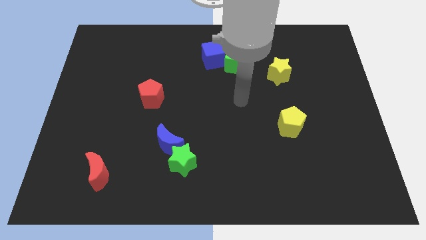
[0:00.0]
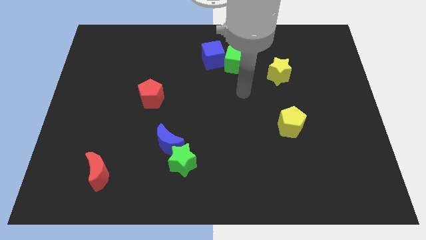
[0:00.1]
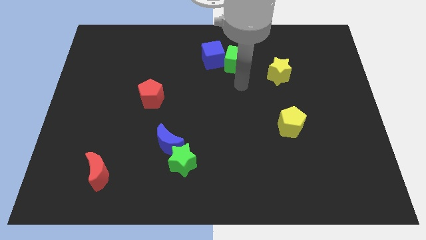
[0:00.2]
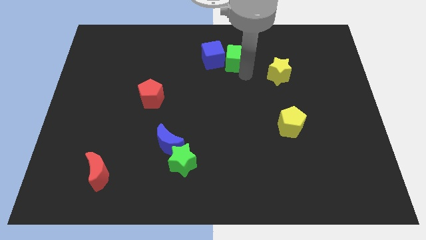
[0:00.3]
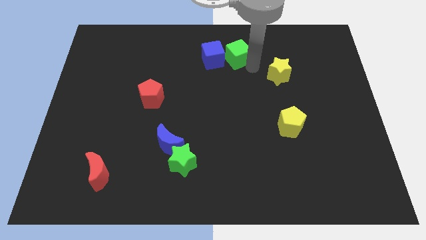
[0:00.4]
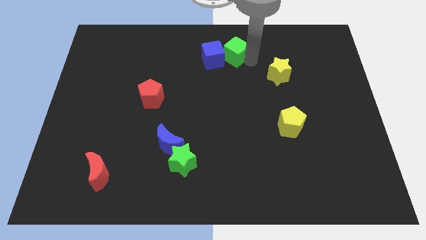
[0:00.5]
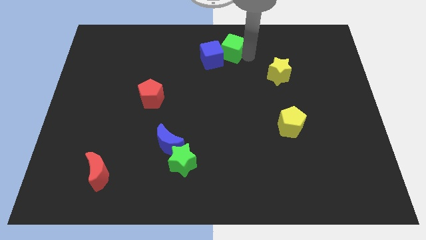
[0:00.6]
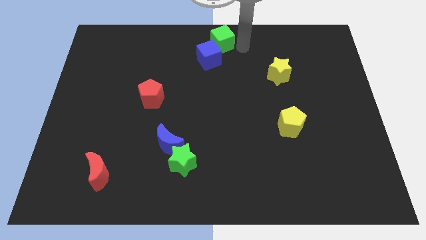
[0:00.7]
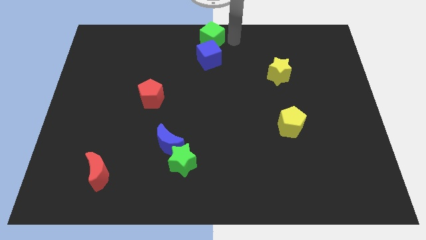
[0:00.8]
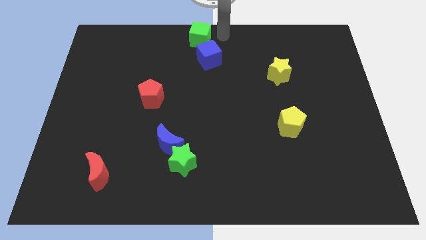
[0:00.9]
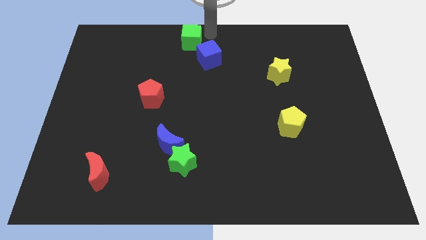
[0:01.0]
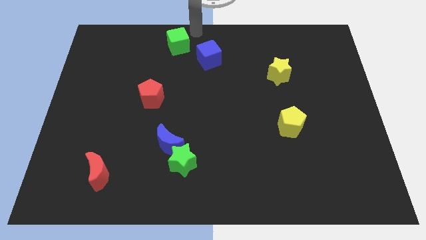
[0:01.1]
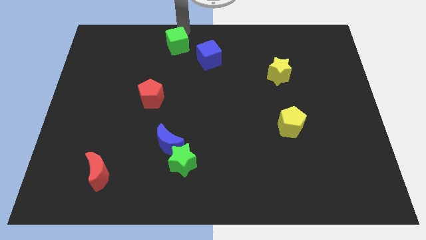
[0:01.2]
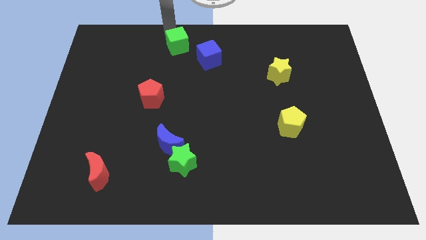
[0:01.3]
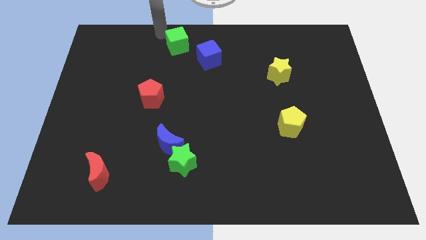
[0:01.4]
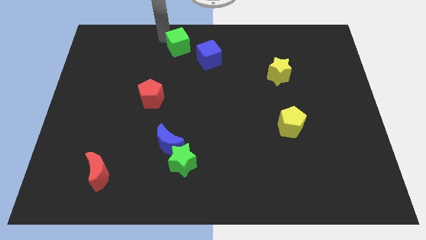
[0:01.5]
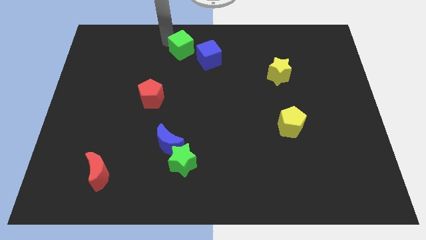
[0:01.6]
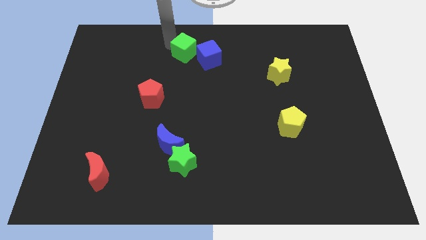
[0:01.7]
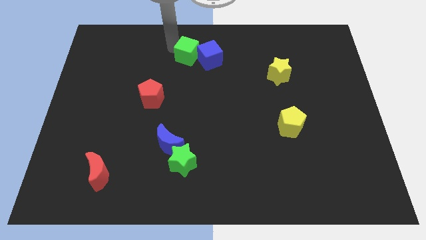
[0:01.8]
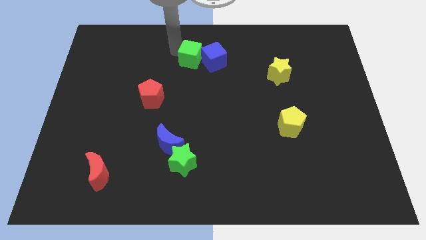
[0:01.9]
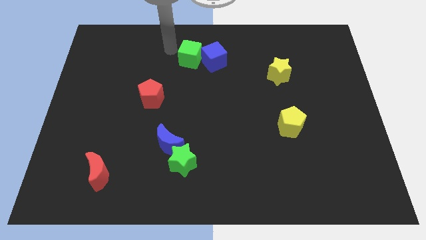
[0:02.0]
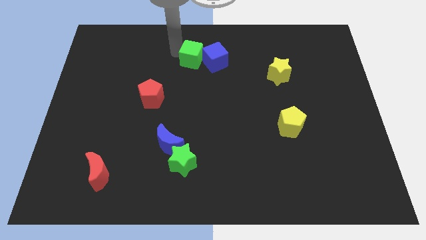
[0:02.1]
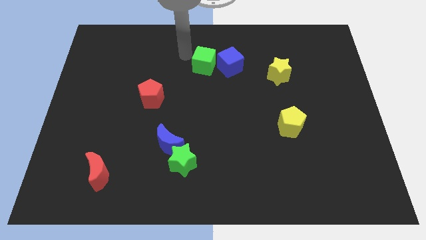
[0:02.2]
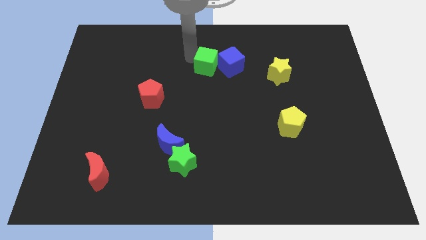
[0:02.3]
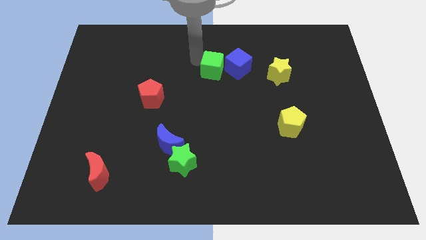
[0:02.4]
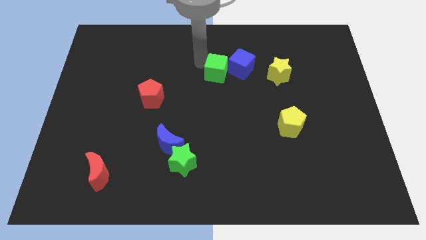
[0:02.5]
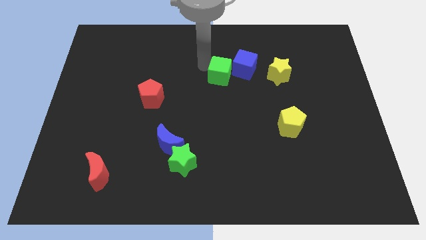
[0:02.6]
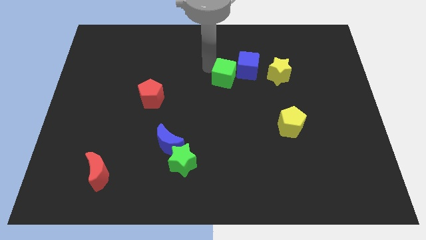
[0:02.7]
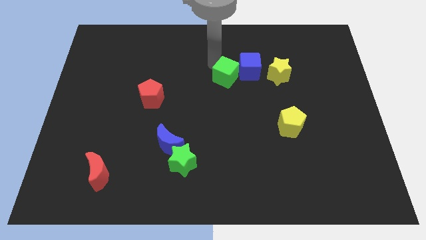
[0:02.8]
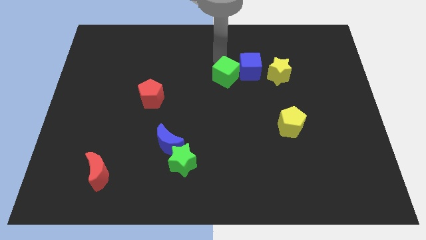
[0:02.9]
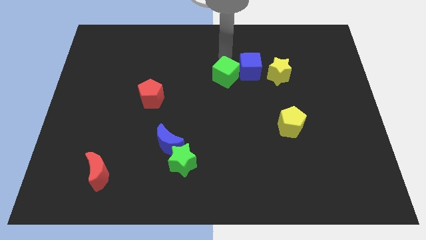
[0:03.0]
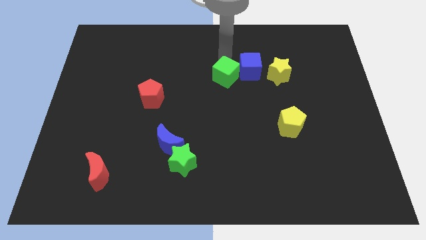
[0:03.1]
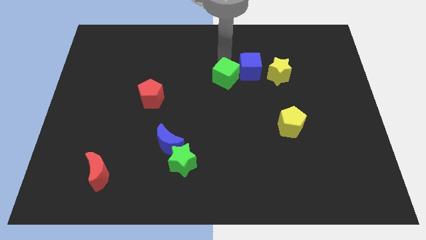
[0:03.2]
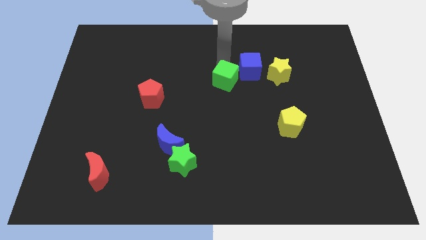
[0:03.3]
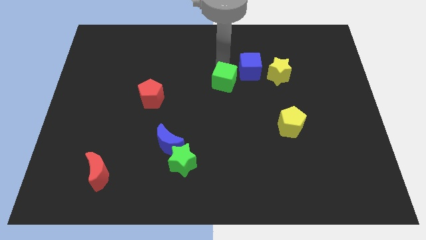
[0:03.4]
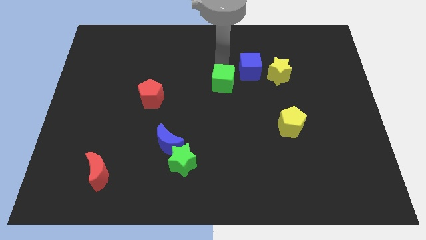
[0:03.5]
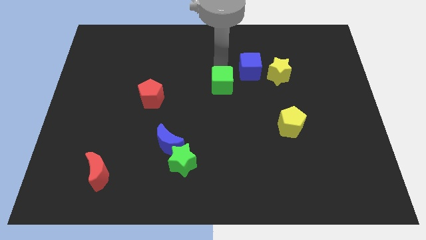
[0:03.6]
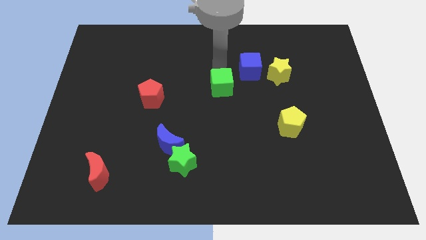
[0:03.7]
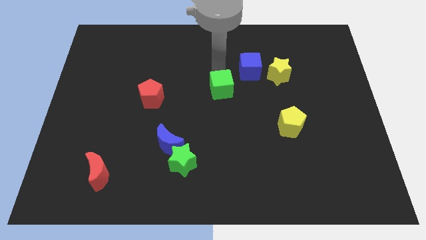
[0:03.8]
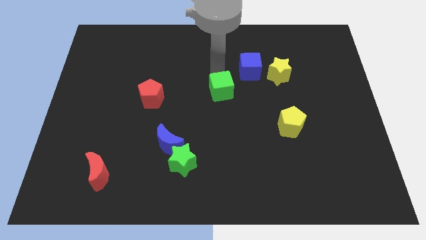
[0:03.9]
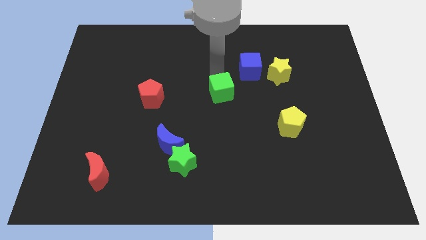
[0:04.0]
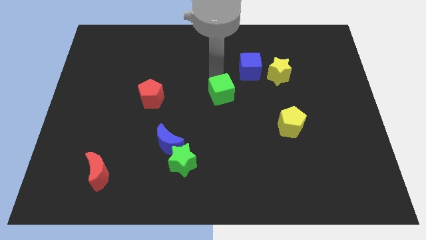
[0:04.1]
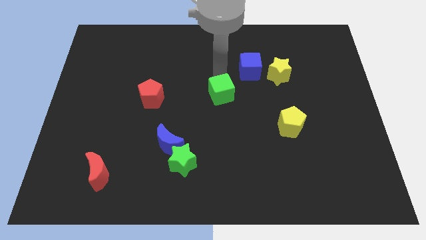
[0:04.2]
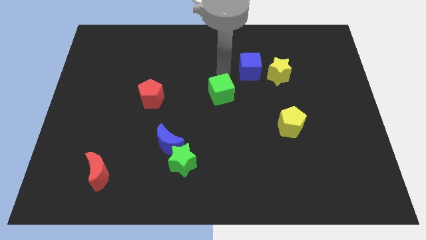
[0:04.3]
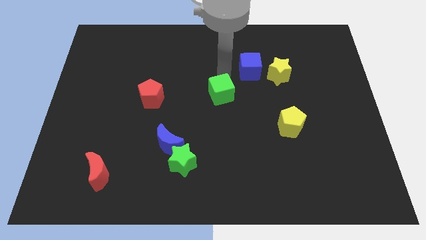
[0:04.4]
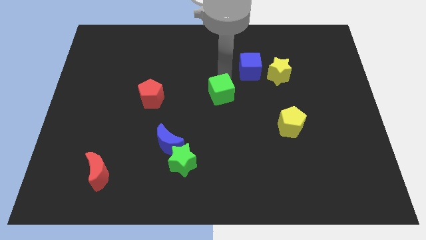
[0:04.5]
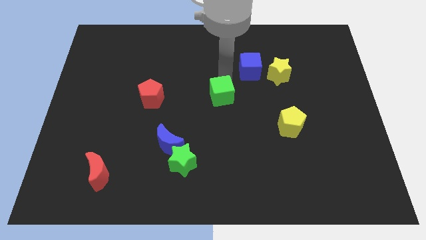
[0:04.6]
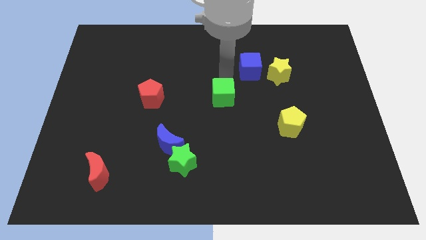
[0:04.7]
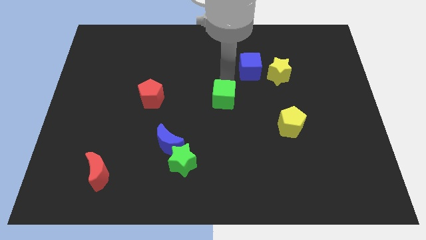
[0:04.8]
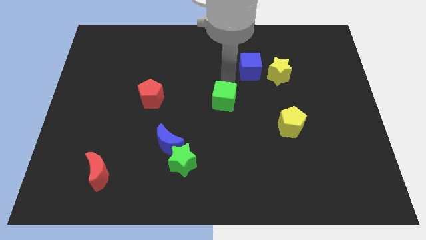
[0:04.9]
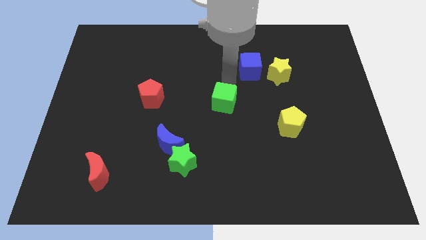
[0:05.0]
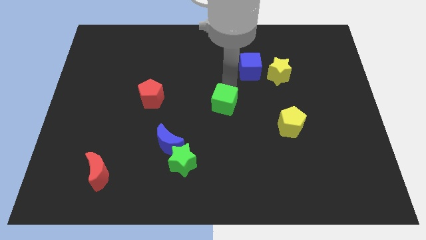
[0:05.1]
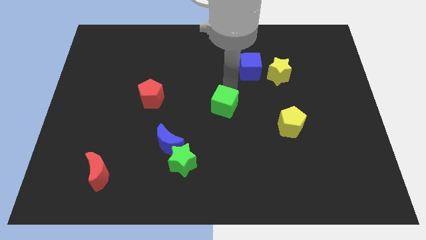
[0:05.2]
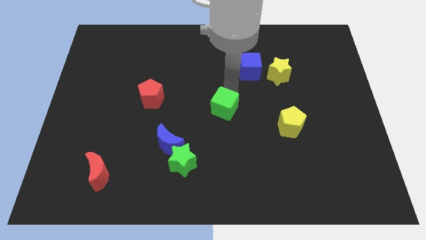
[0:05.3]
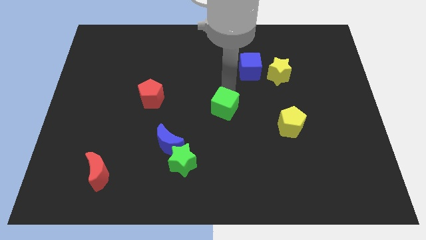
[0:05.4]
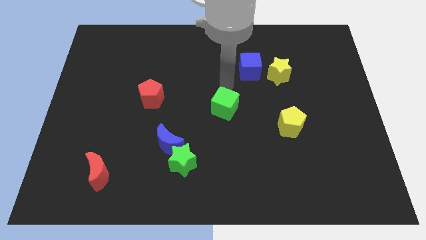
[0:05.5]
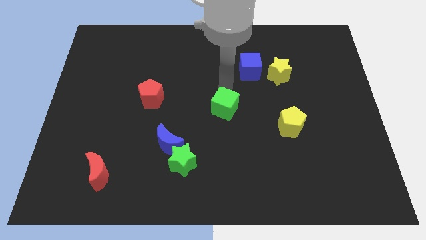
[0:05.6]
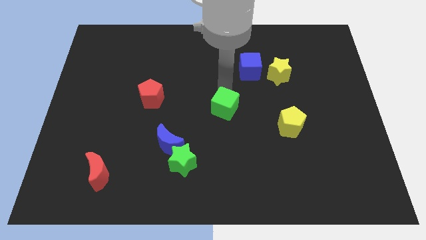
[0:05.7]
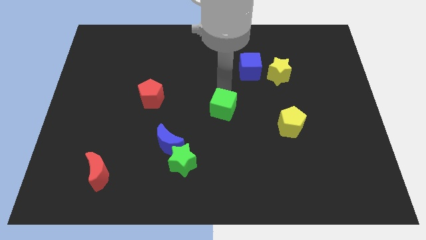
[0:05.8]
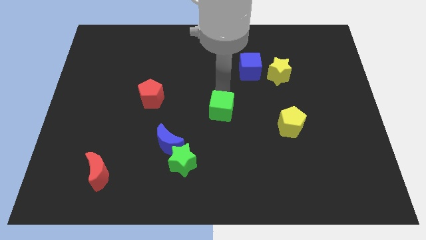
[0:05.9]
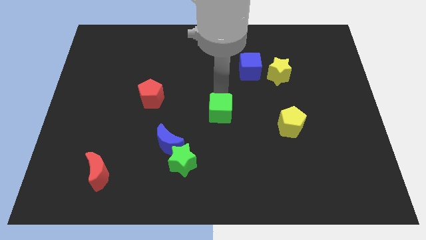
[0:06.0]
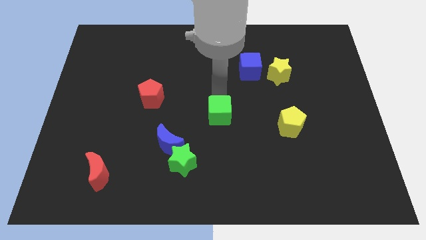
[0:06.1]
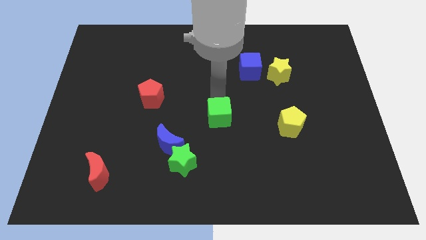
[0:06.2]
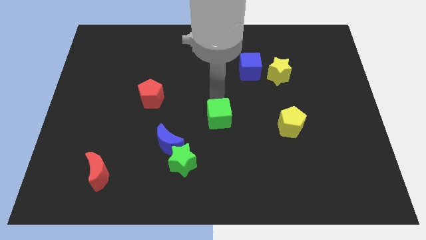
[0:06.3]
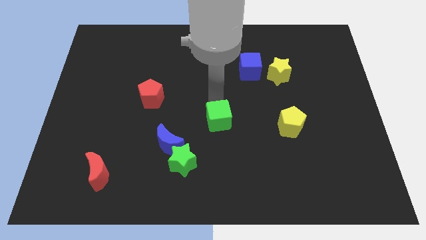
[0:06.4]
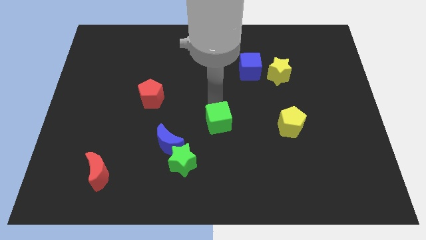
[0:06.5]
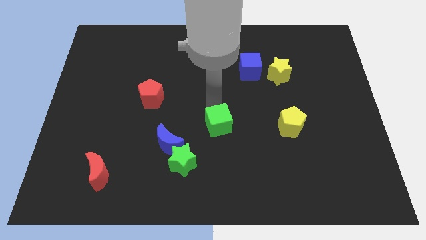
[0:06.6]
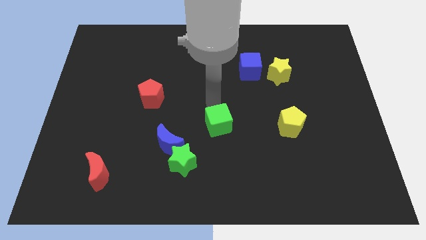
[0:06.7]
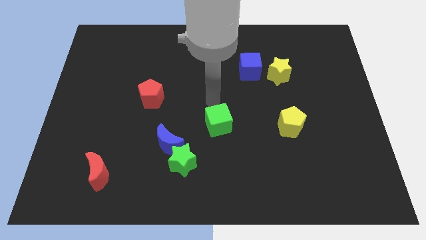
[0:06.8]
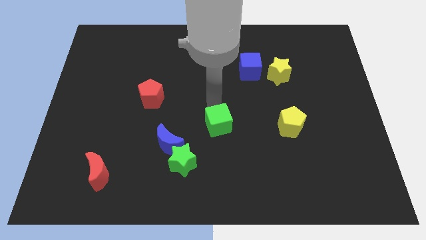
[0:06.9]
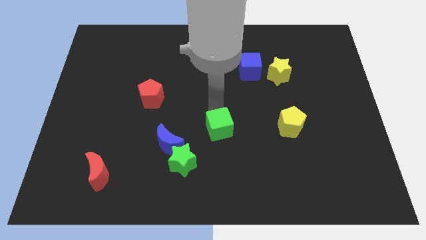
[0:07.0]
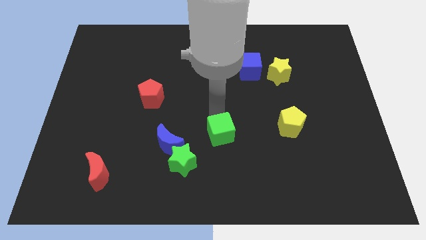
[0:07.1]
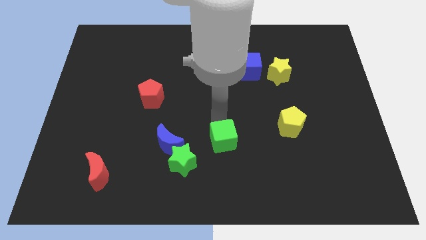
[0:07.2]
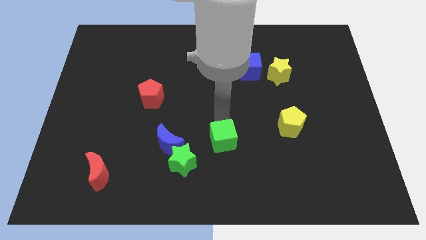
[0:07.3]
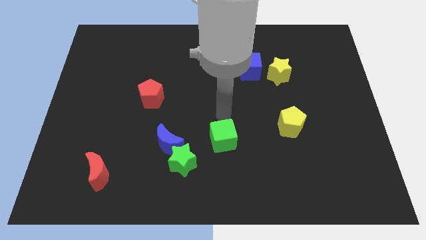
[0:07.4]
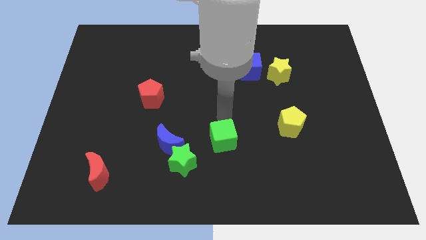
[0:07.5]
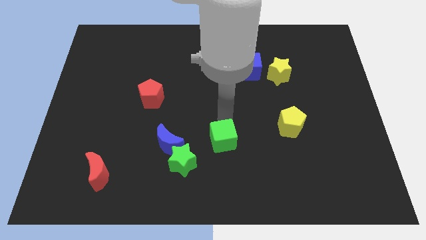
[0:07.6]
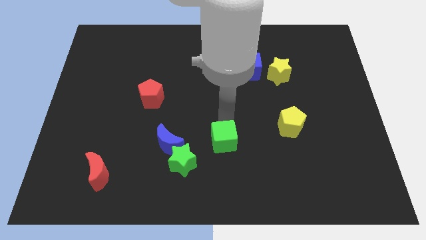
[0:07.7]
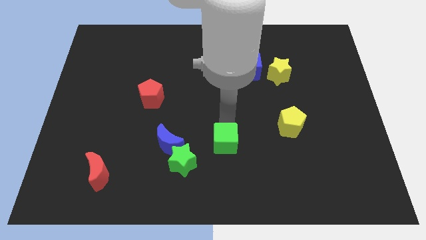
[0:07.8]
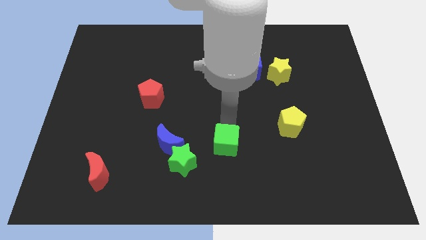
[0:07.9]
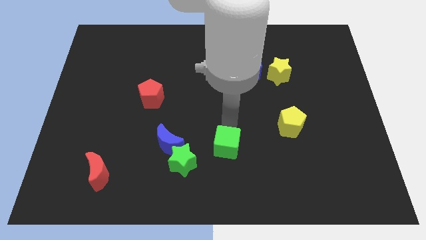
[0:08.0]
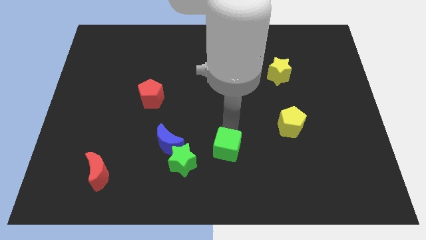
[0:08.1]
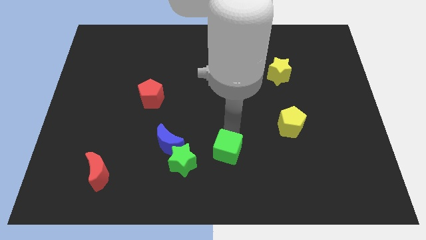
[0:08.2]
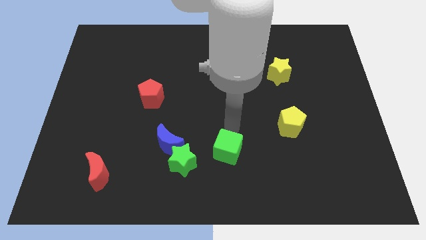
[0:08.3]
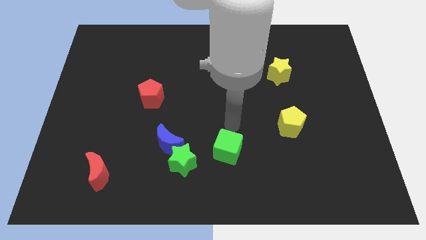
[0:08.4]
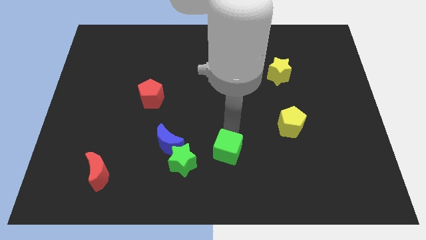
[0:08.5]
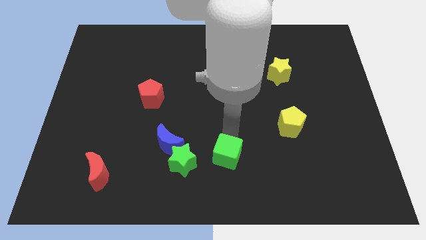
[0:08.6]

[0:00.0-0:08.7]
slide the green cube to the bottom
